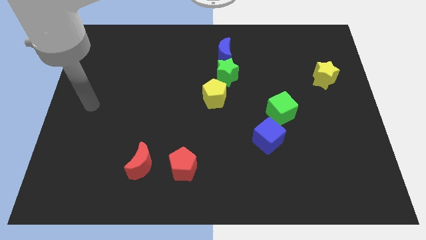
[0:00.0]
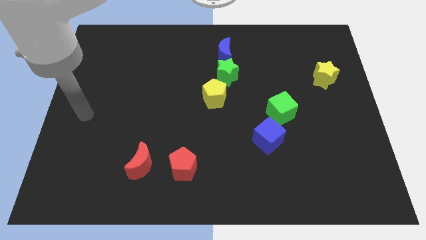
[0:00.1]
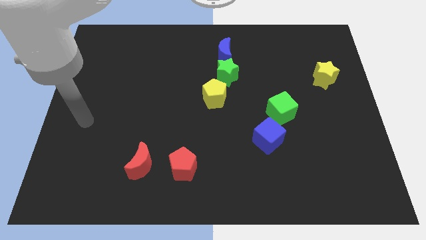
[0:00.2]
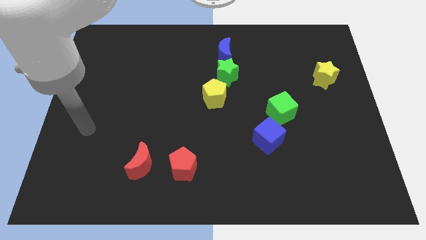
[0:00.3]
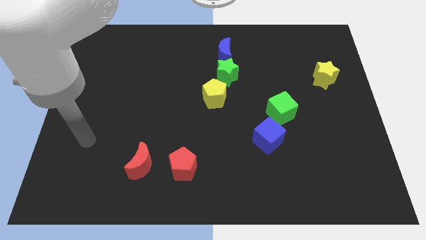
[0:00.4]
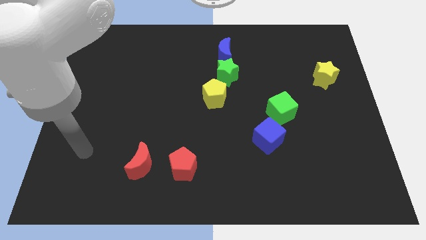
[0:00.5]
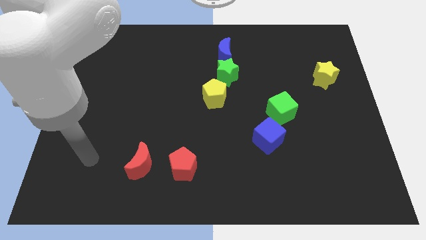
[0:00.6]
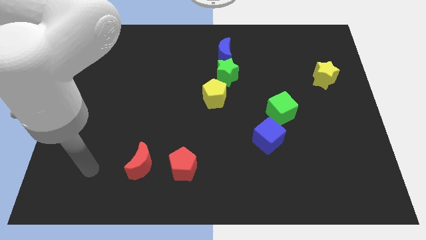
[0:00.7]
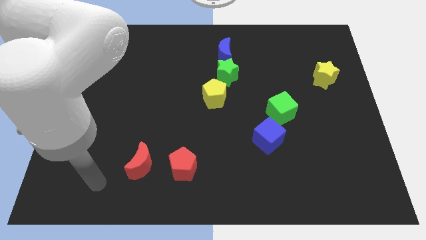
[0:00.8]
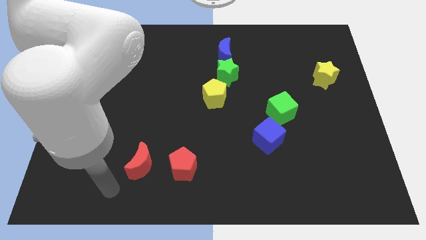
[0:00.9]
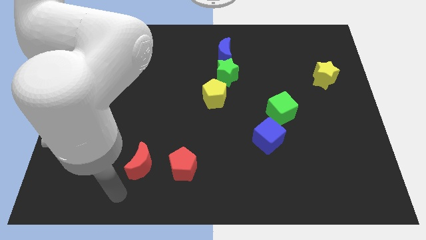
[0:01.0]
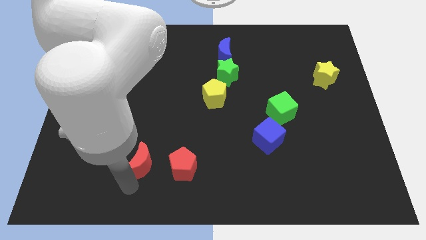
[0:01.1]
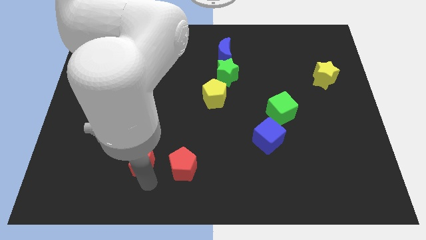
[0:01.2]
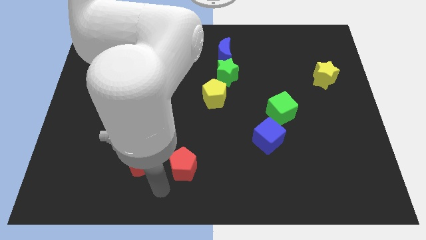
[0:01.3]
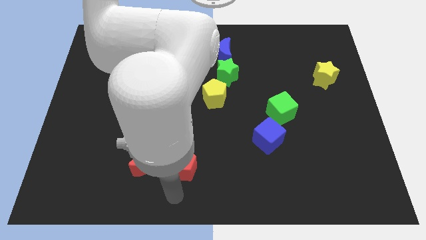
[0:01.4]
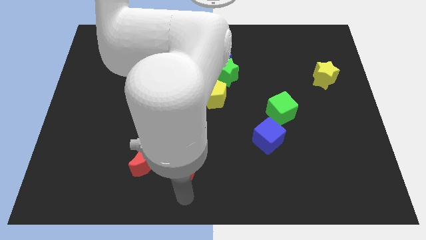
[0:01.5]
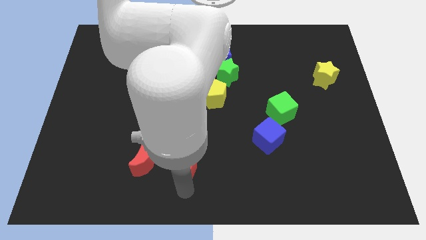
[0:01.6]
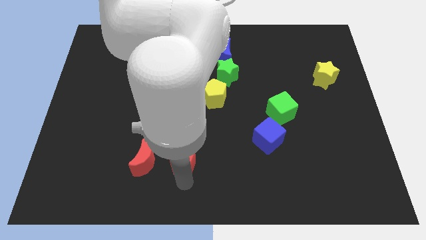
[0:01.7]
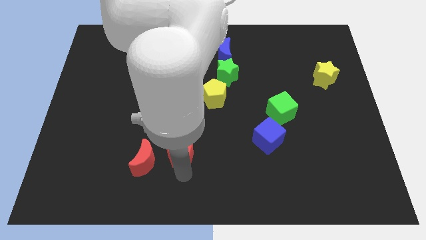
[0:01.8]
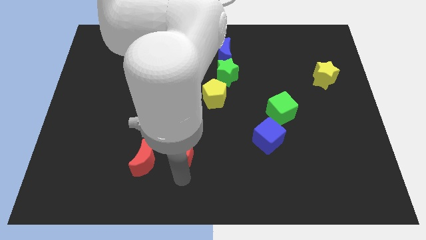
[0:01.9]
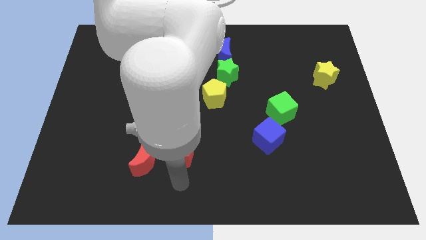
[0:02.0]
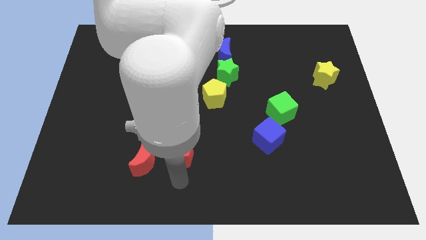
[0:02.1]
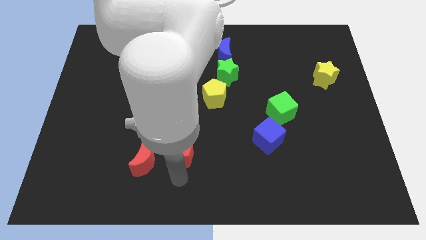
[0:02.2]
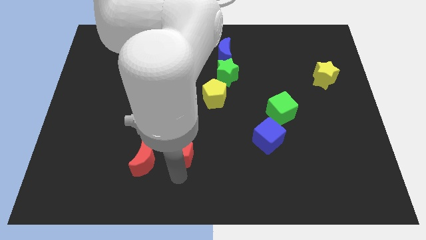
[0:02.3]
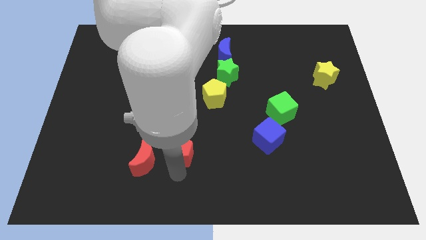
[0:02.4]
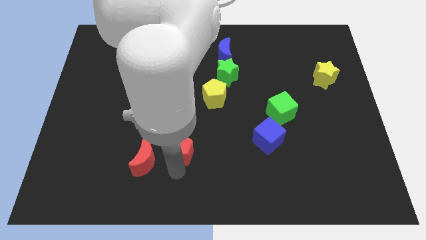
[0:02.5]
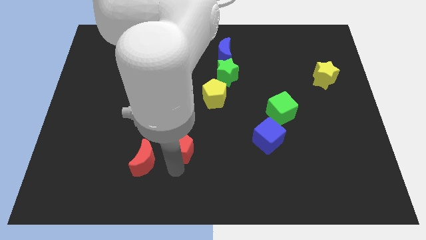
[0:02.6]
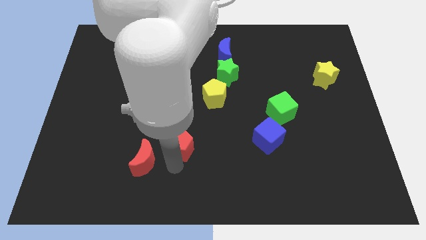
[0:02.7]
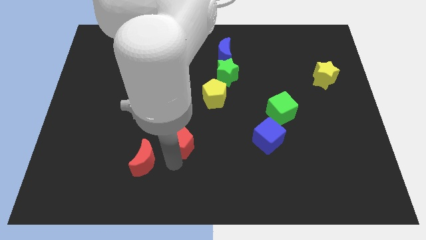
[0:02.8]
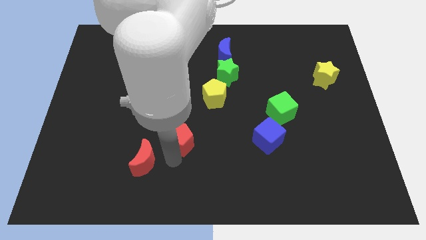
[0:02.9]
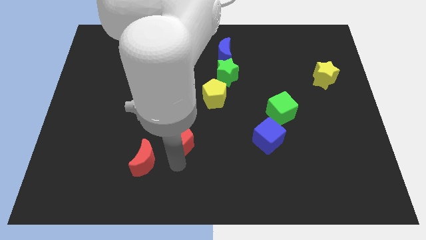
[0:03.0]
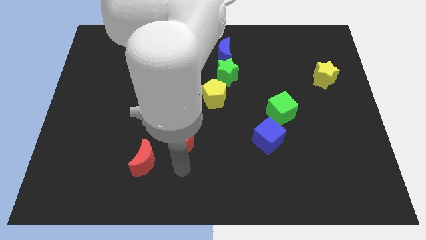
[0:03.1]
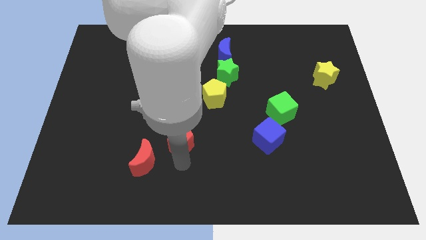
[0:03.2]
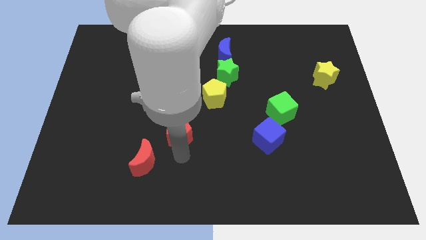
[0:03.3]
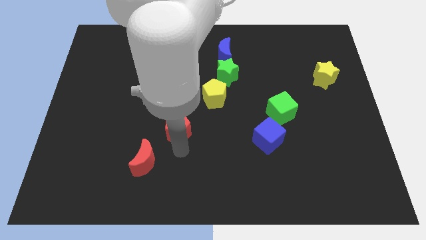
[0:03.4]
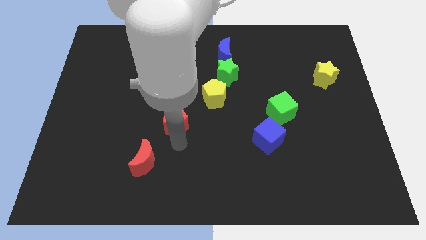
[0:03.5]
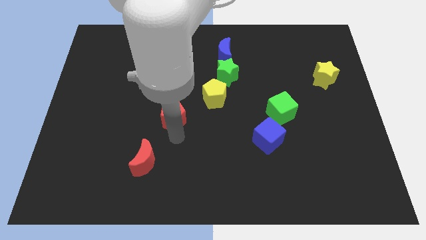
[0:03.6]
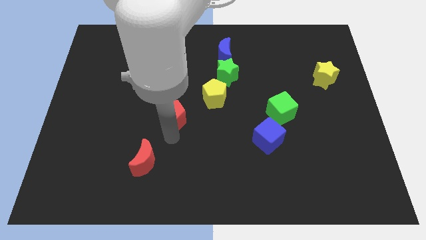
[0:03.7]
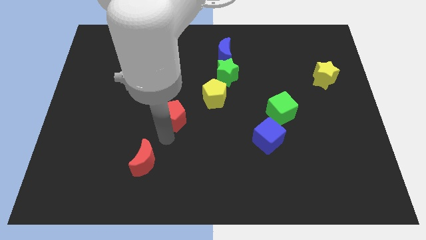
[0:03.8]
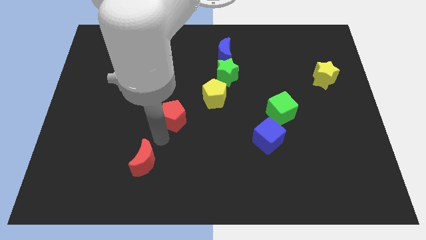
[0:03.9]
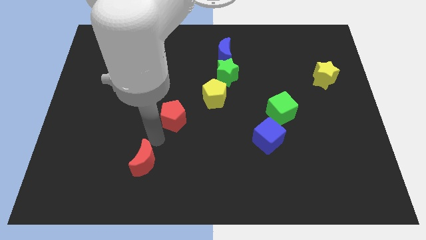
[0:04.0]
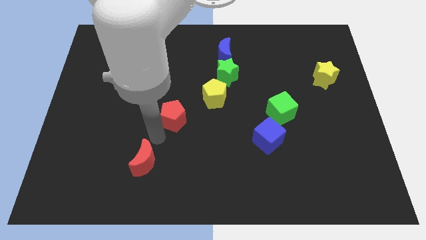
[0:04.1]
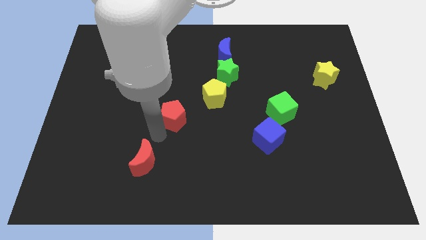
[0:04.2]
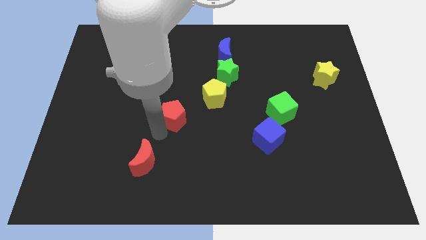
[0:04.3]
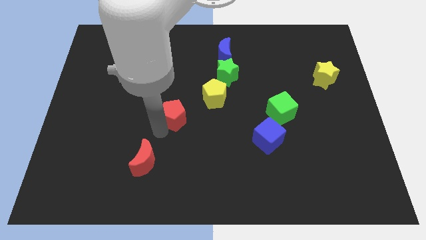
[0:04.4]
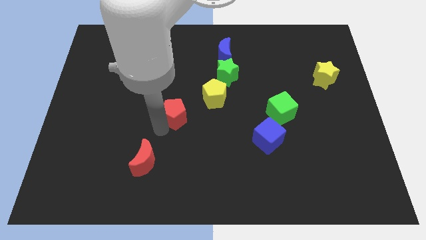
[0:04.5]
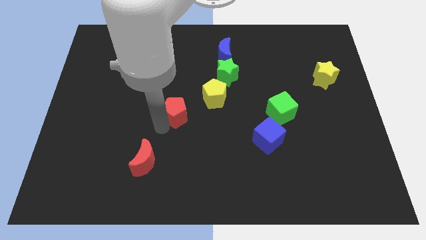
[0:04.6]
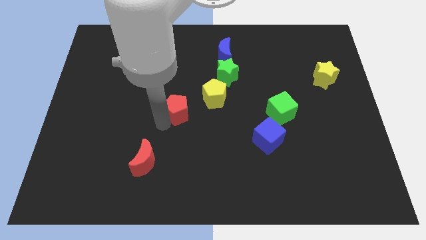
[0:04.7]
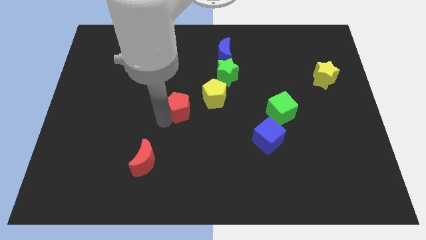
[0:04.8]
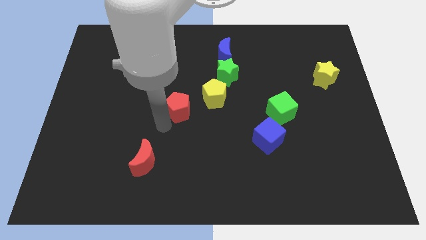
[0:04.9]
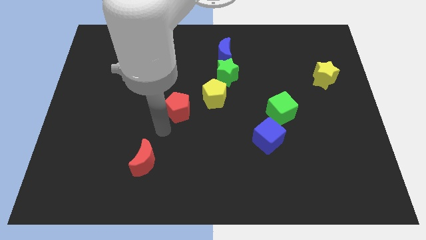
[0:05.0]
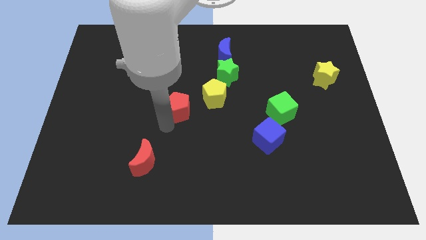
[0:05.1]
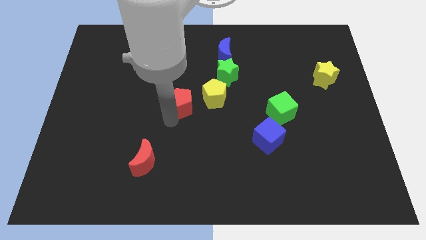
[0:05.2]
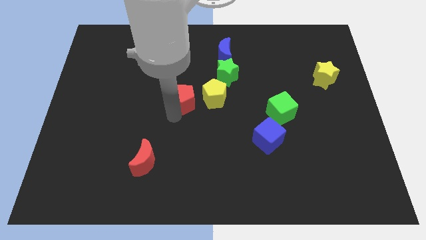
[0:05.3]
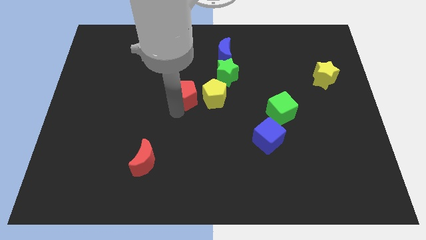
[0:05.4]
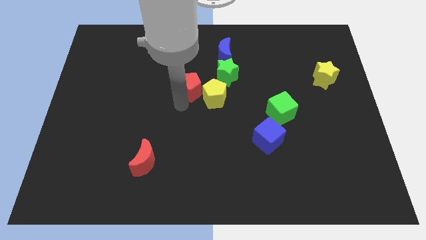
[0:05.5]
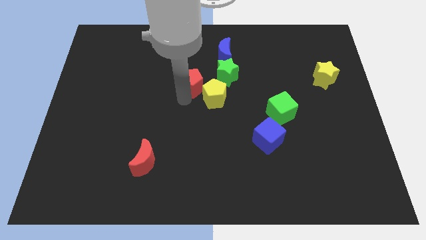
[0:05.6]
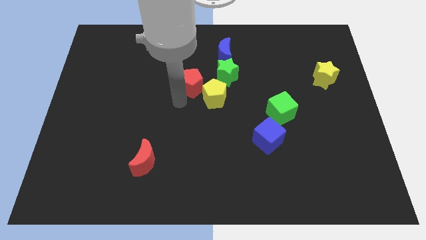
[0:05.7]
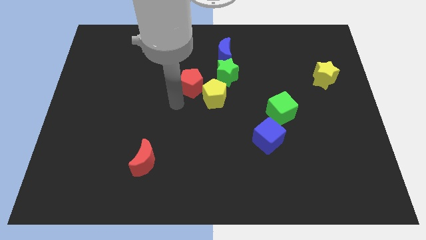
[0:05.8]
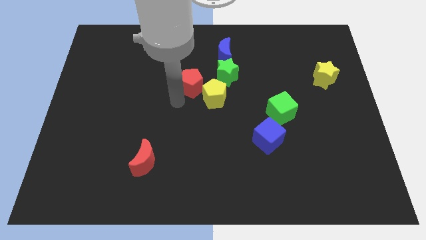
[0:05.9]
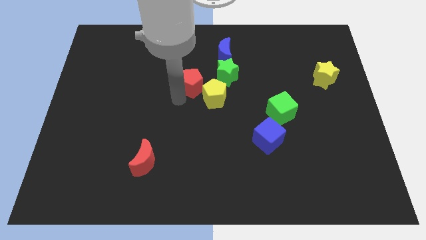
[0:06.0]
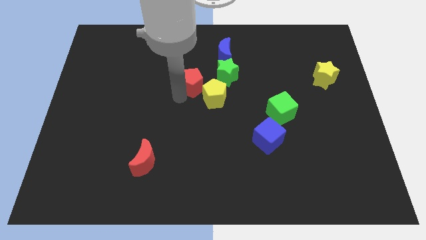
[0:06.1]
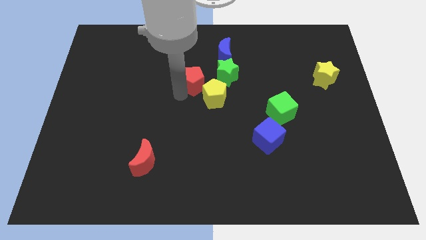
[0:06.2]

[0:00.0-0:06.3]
push the red pentagon to the bottom left side of the blue moon
